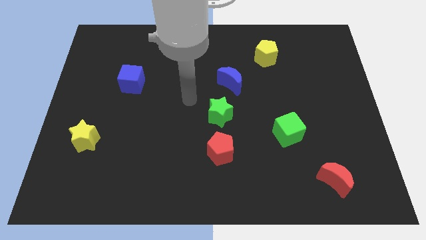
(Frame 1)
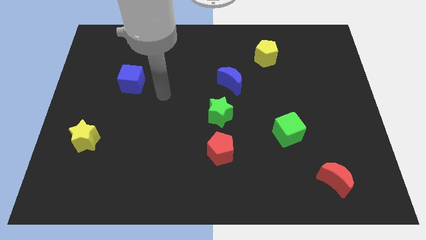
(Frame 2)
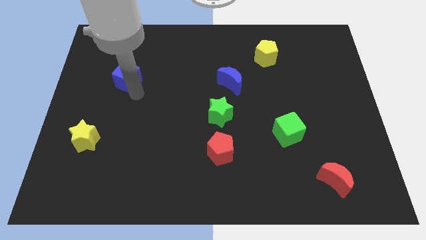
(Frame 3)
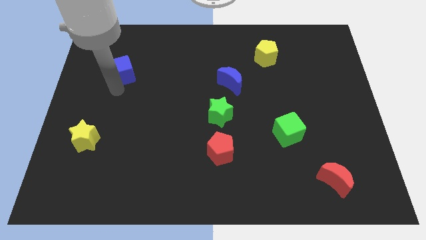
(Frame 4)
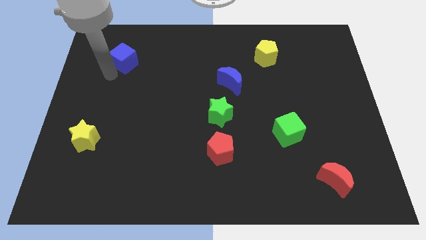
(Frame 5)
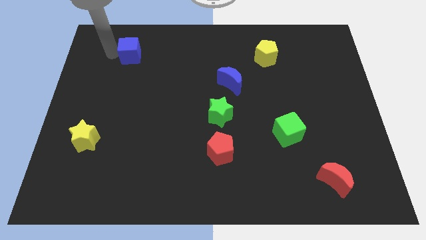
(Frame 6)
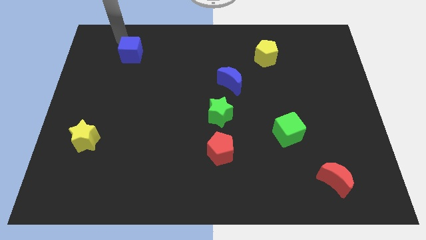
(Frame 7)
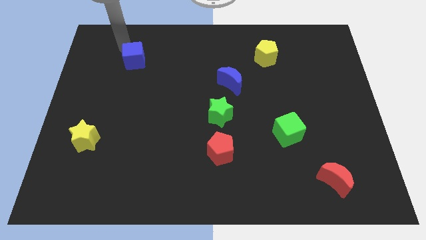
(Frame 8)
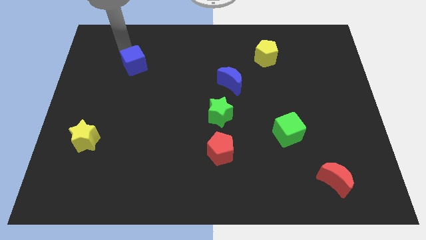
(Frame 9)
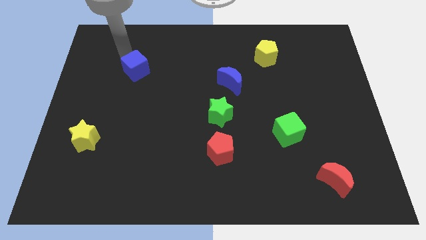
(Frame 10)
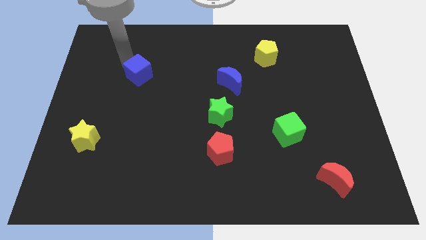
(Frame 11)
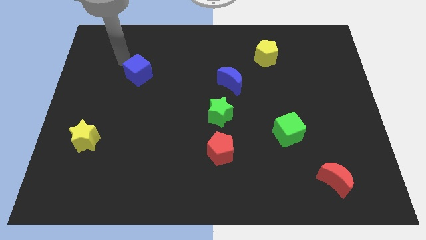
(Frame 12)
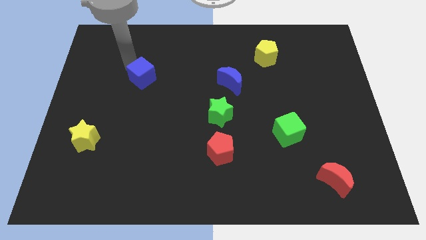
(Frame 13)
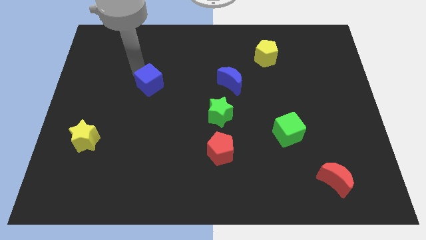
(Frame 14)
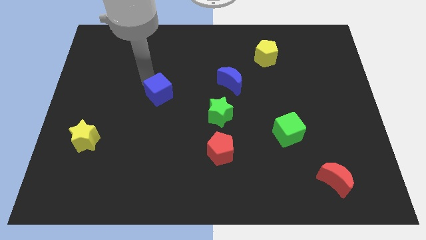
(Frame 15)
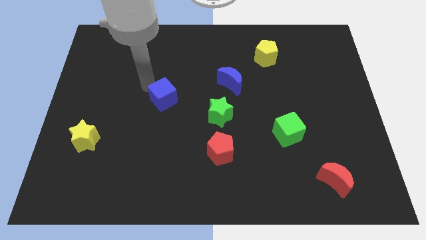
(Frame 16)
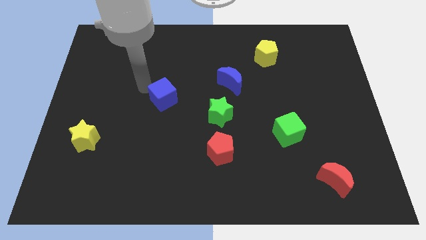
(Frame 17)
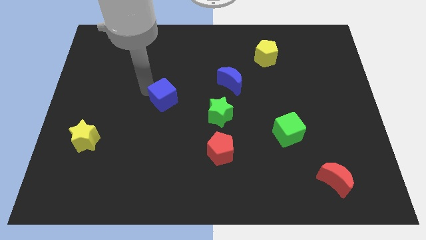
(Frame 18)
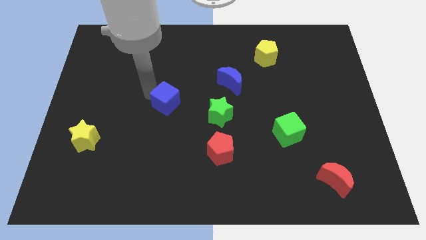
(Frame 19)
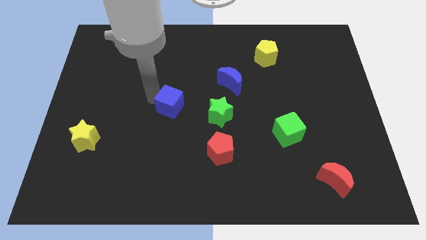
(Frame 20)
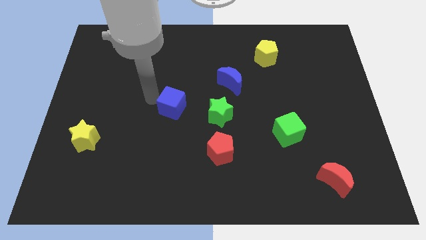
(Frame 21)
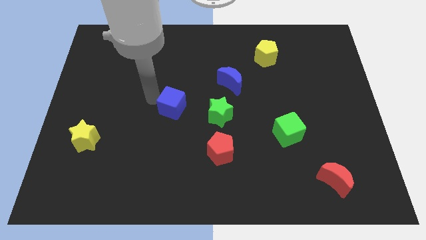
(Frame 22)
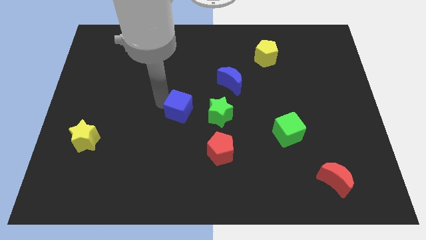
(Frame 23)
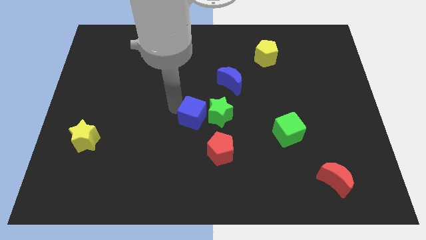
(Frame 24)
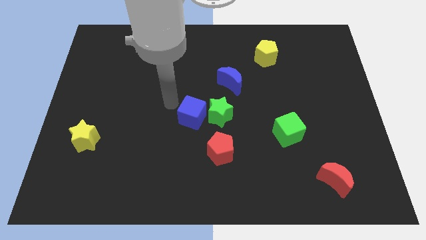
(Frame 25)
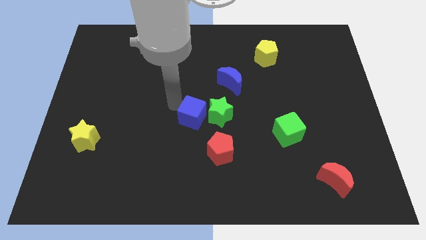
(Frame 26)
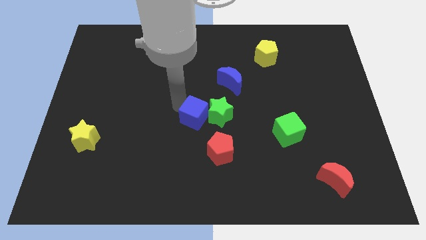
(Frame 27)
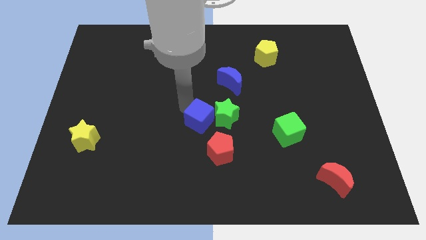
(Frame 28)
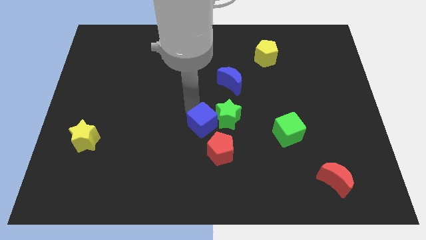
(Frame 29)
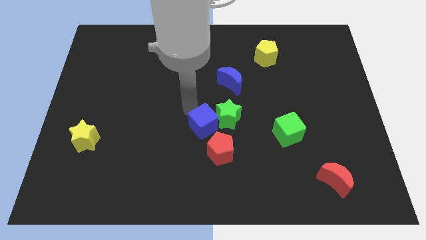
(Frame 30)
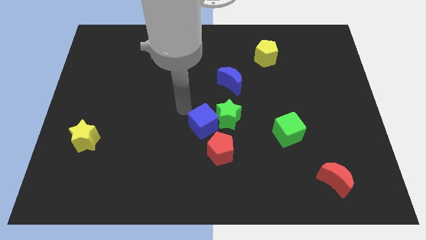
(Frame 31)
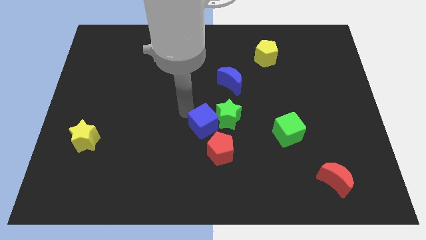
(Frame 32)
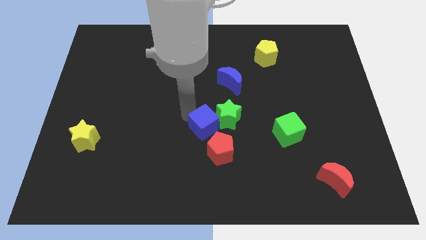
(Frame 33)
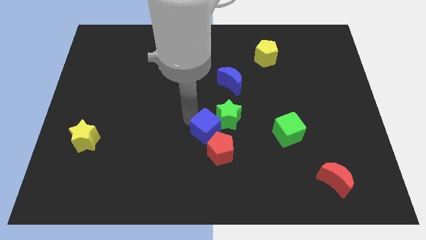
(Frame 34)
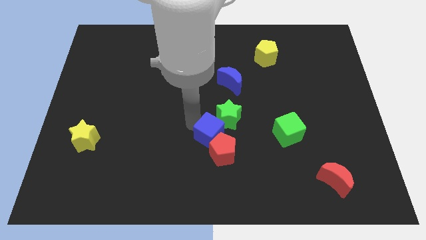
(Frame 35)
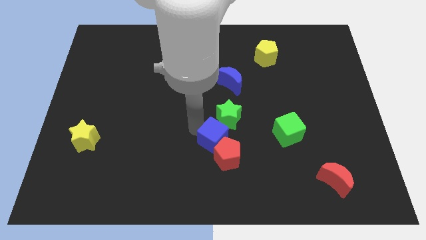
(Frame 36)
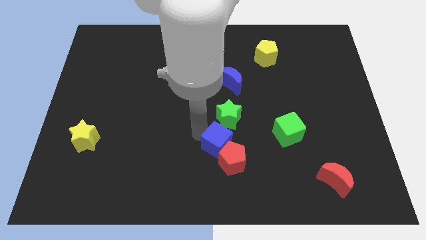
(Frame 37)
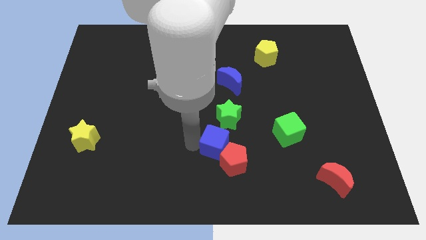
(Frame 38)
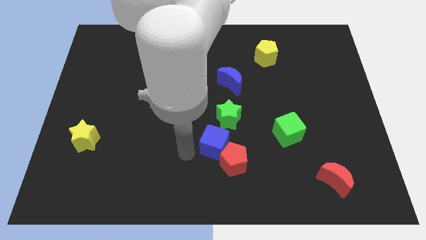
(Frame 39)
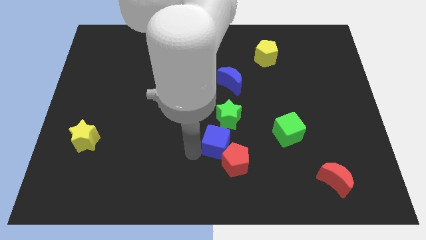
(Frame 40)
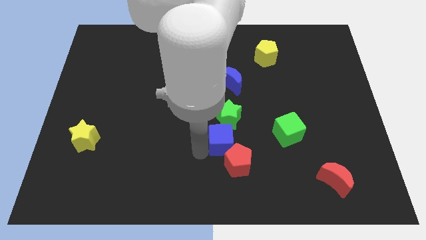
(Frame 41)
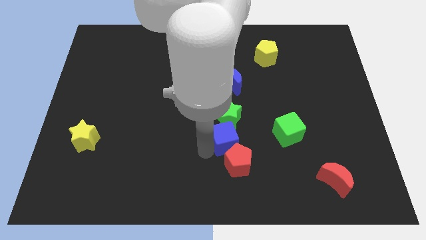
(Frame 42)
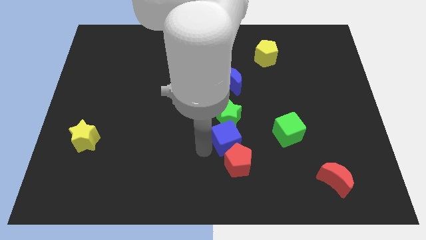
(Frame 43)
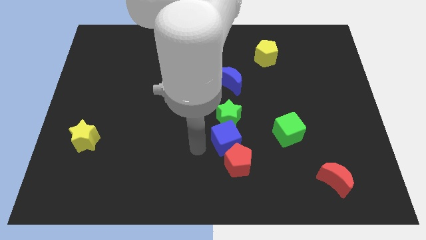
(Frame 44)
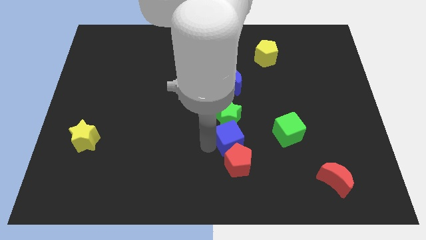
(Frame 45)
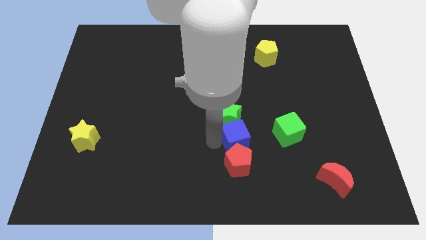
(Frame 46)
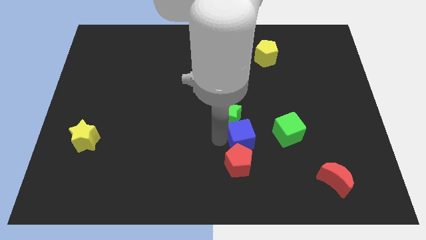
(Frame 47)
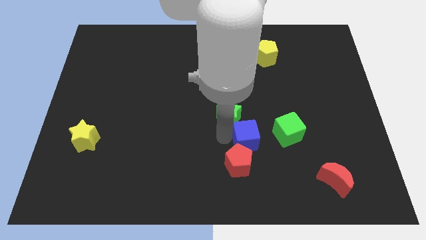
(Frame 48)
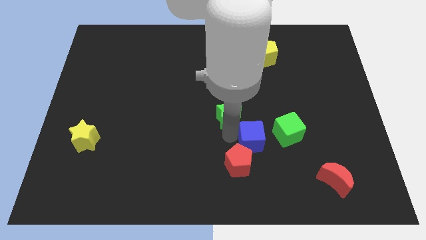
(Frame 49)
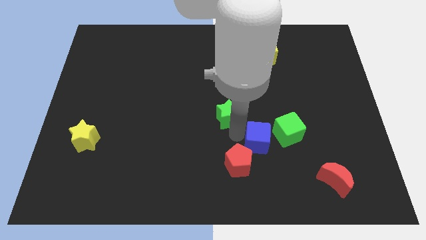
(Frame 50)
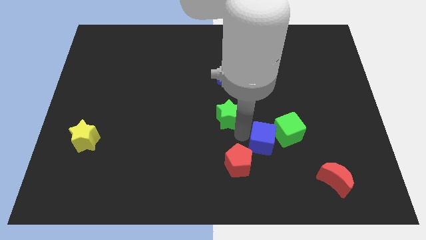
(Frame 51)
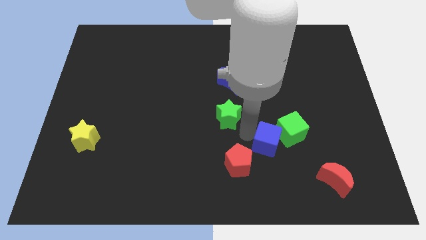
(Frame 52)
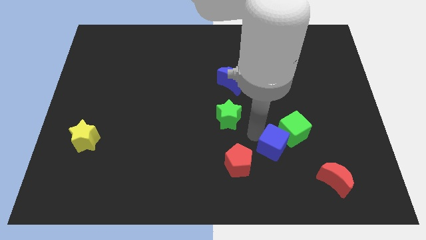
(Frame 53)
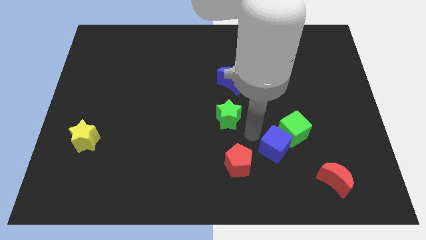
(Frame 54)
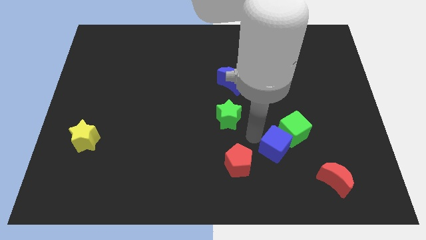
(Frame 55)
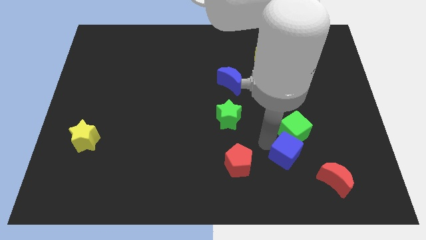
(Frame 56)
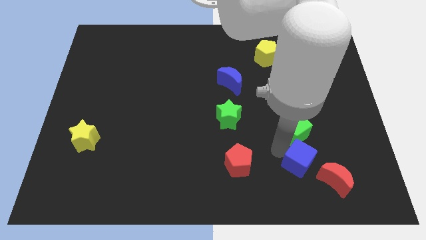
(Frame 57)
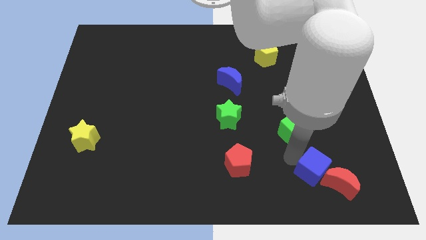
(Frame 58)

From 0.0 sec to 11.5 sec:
move the blue cube towards the red moon

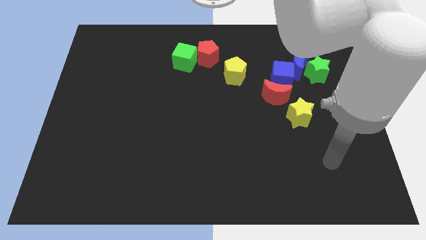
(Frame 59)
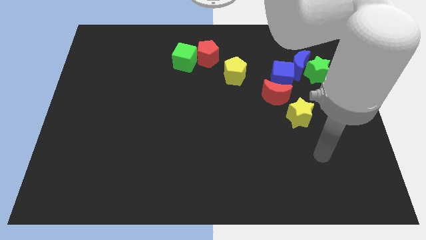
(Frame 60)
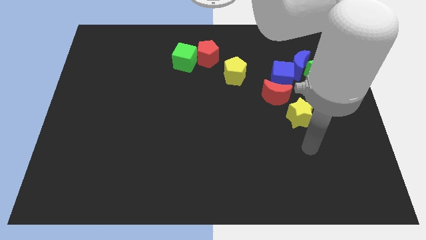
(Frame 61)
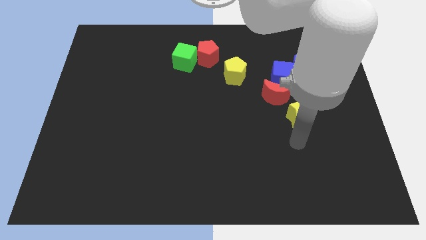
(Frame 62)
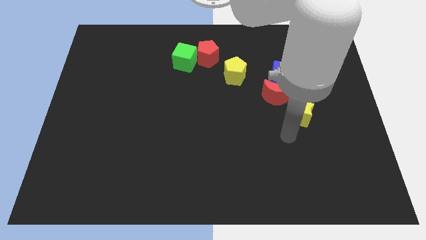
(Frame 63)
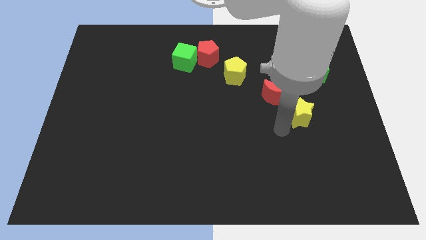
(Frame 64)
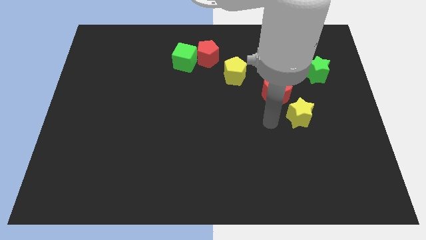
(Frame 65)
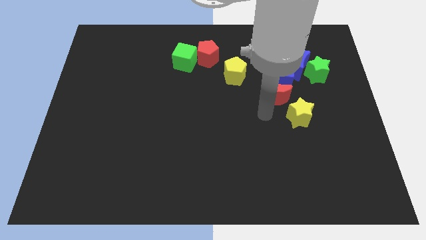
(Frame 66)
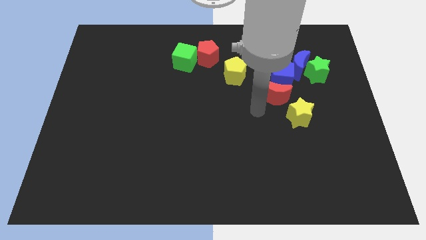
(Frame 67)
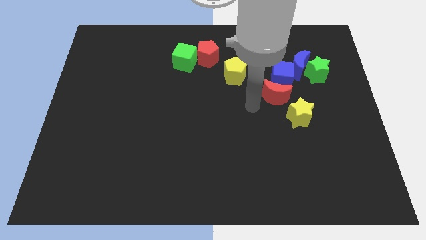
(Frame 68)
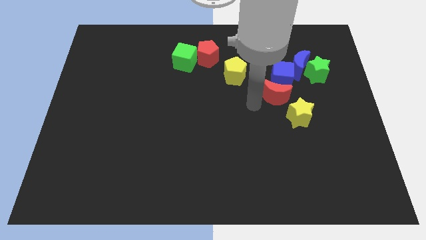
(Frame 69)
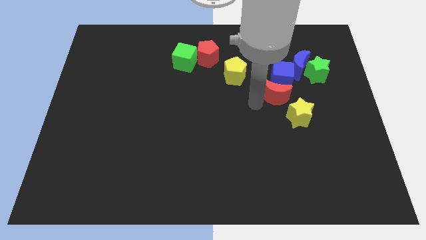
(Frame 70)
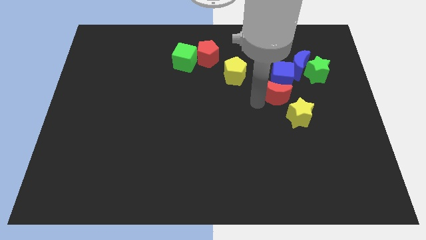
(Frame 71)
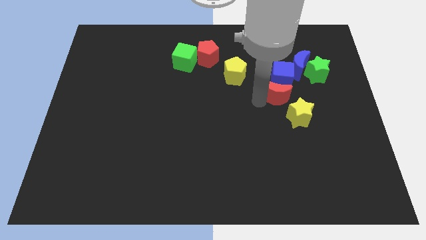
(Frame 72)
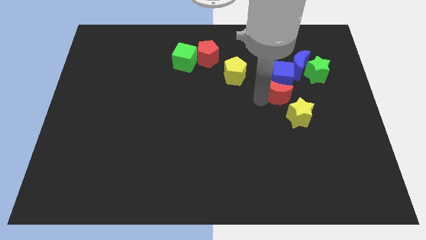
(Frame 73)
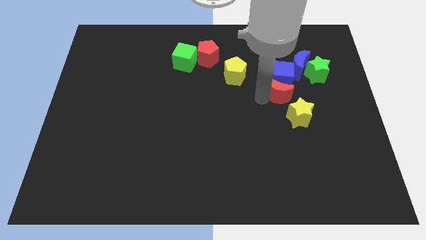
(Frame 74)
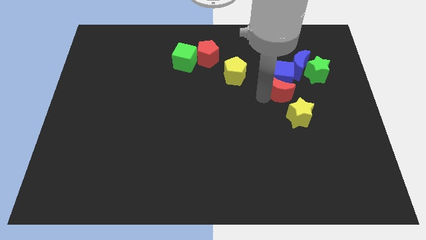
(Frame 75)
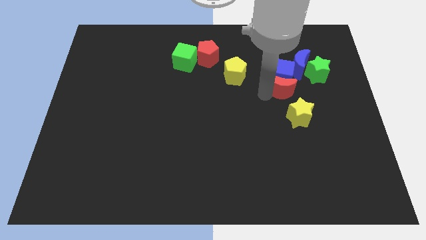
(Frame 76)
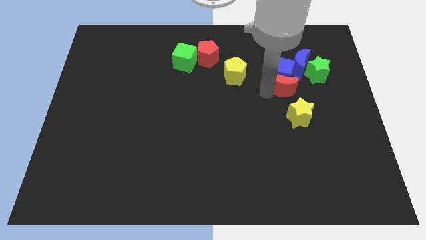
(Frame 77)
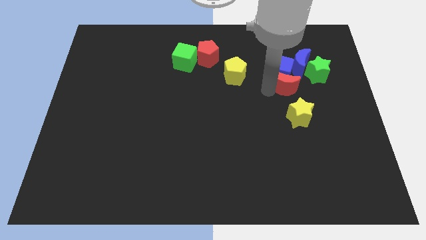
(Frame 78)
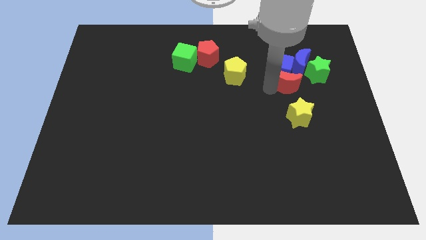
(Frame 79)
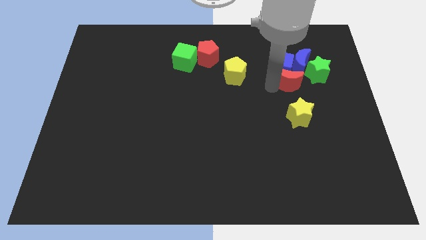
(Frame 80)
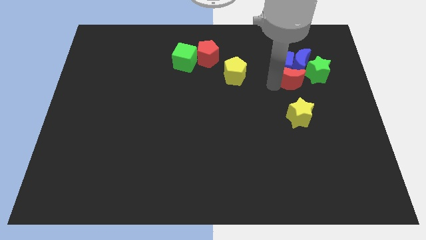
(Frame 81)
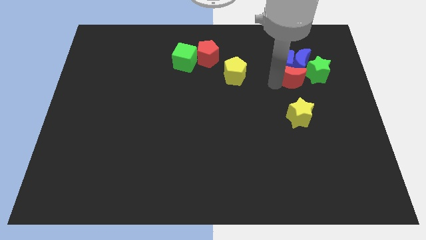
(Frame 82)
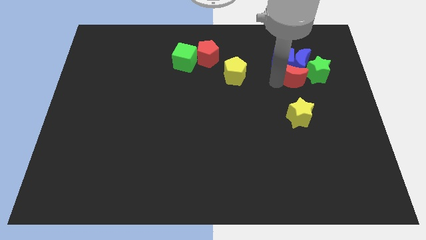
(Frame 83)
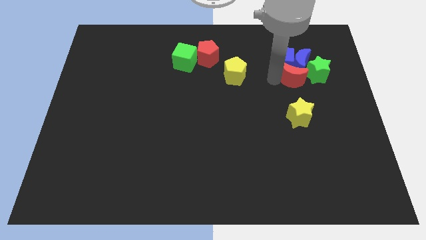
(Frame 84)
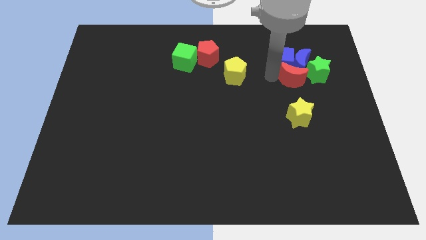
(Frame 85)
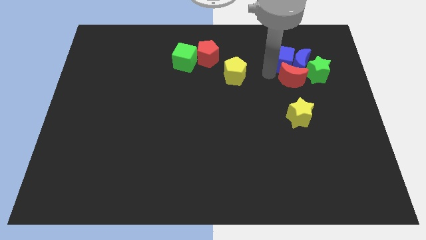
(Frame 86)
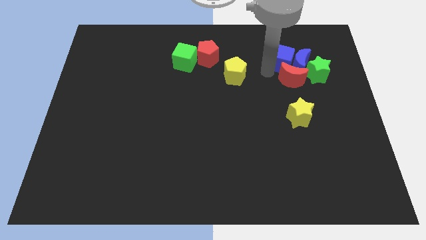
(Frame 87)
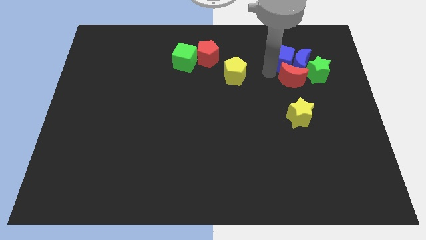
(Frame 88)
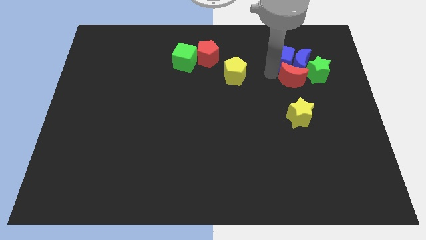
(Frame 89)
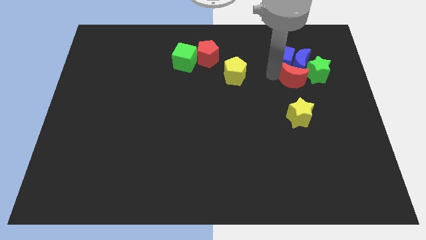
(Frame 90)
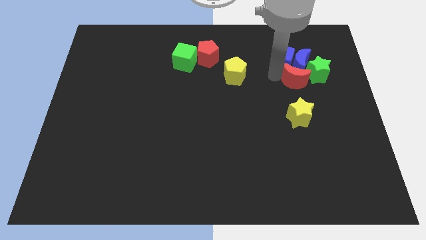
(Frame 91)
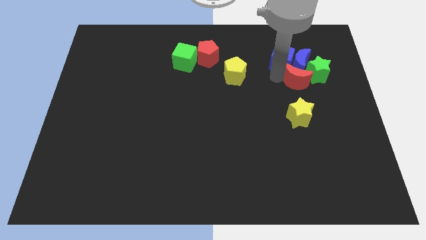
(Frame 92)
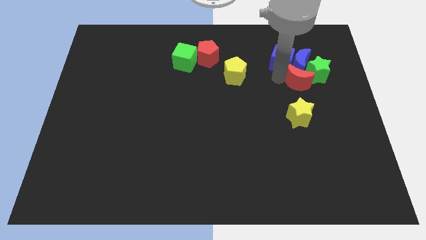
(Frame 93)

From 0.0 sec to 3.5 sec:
slide the red moon next to the green star
